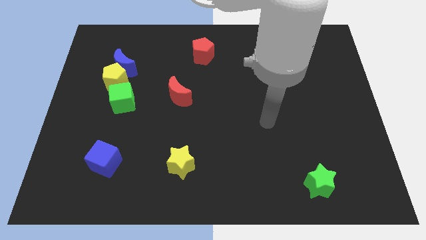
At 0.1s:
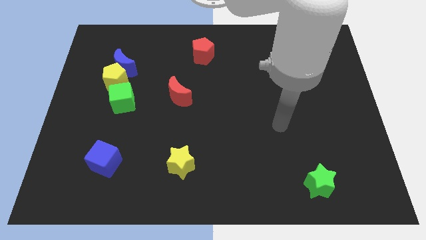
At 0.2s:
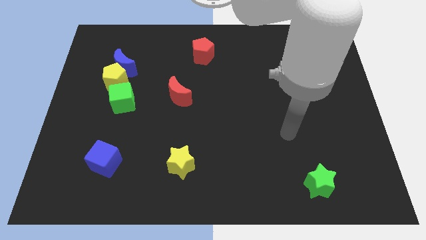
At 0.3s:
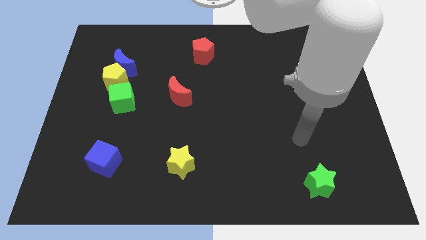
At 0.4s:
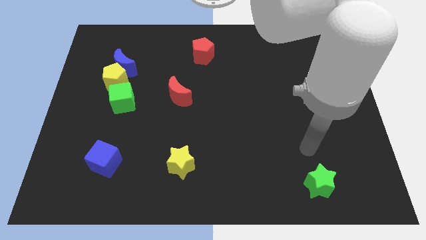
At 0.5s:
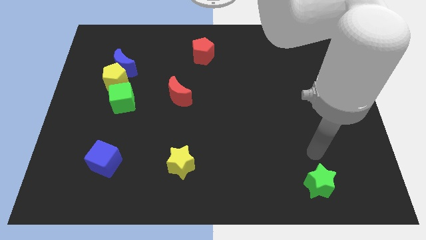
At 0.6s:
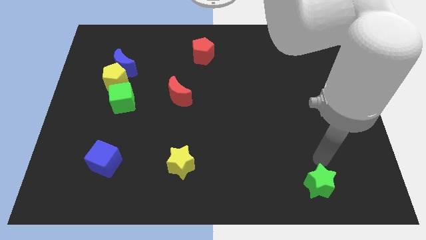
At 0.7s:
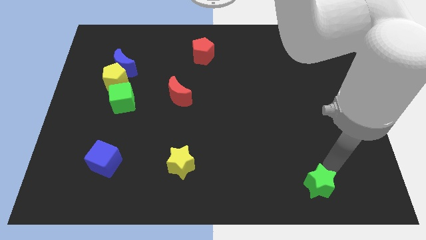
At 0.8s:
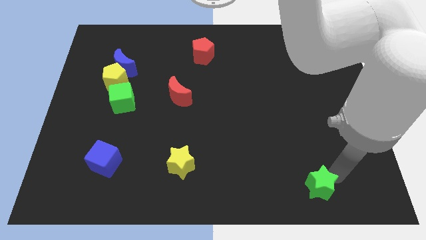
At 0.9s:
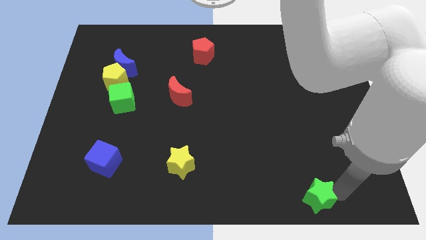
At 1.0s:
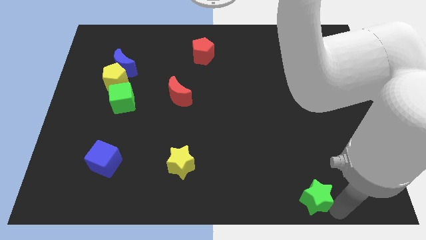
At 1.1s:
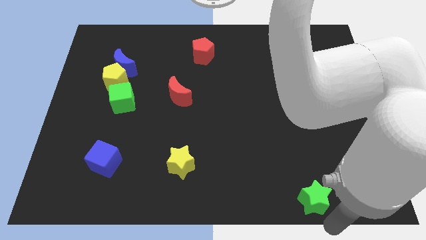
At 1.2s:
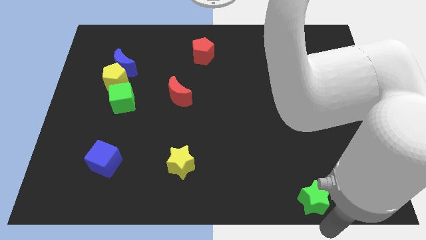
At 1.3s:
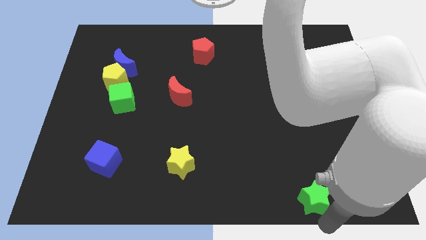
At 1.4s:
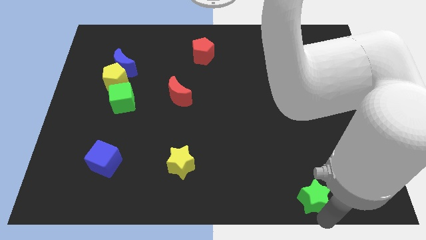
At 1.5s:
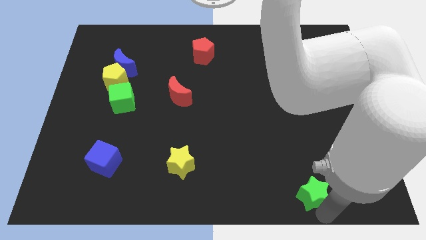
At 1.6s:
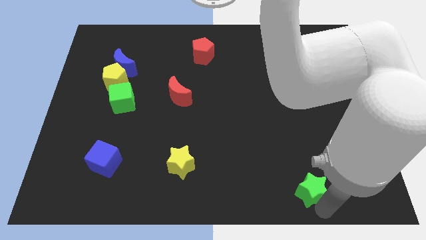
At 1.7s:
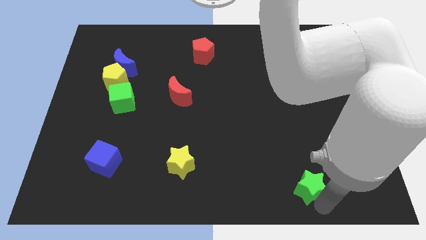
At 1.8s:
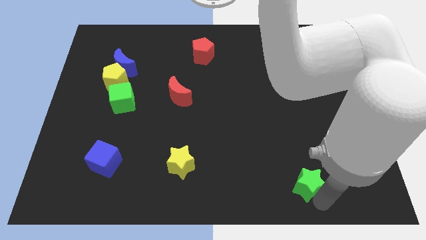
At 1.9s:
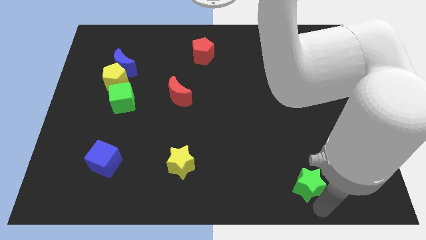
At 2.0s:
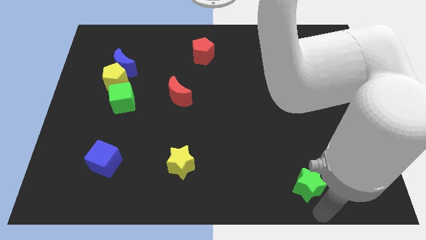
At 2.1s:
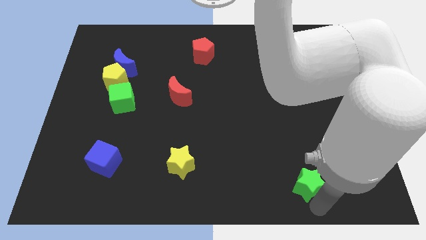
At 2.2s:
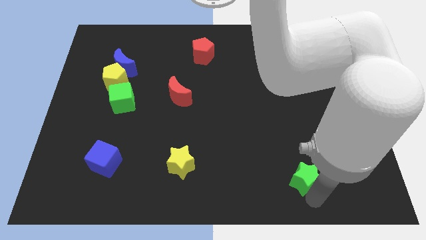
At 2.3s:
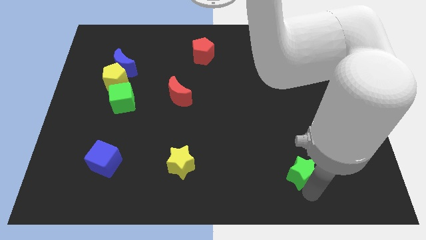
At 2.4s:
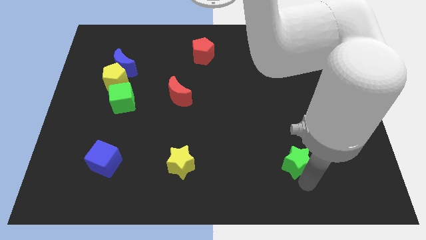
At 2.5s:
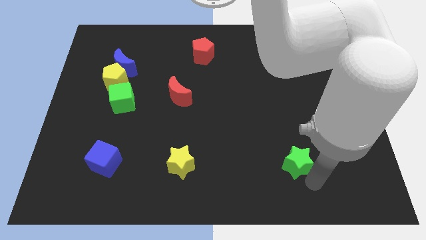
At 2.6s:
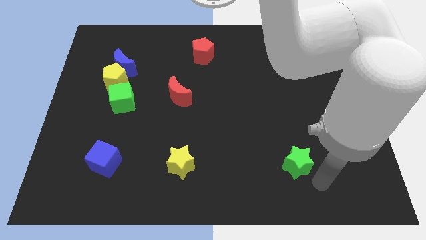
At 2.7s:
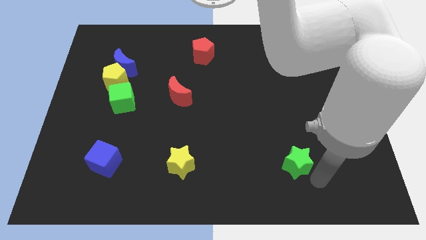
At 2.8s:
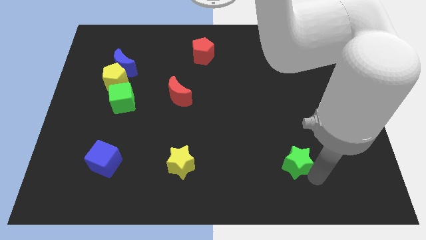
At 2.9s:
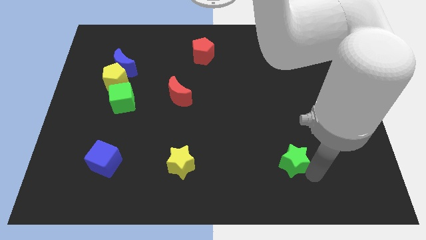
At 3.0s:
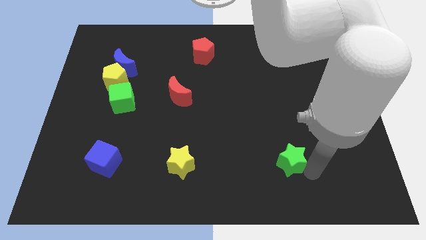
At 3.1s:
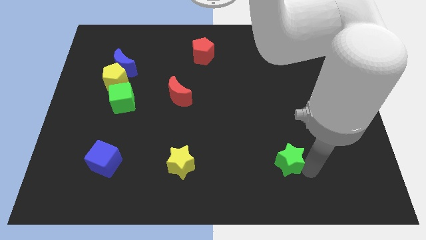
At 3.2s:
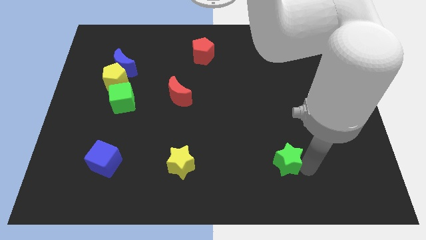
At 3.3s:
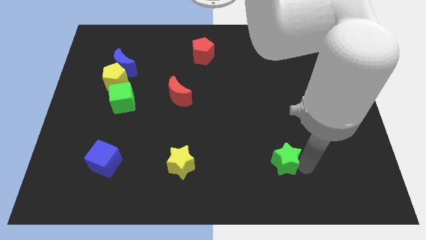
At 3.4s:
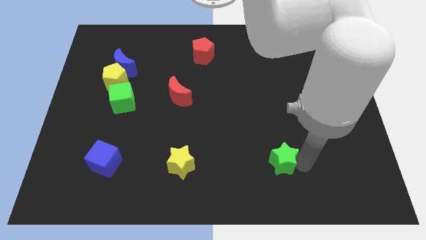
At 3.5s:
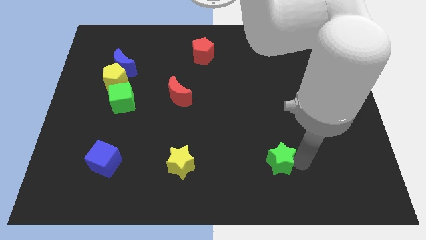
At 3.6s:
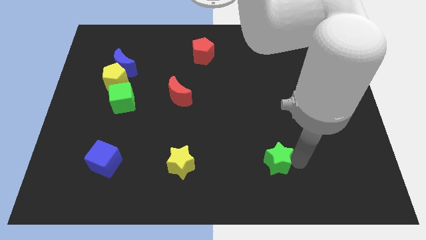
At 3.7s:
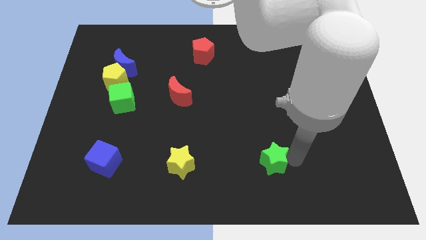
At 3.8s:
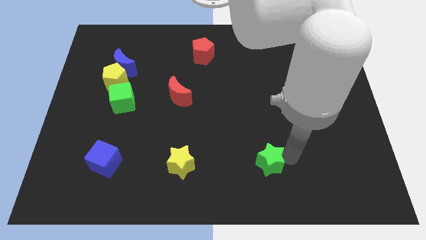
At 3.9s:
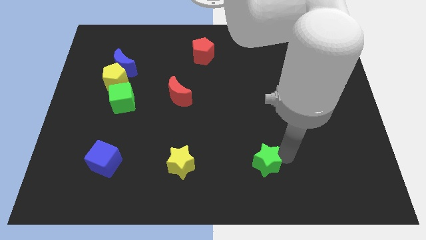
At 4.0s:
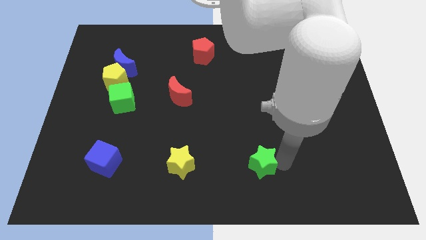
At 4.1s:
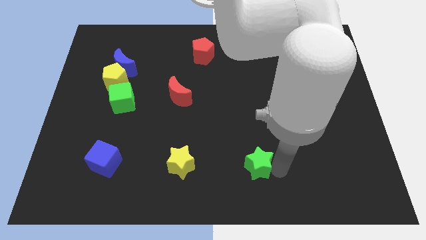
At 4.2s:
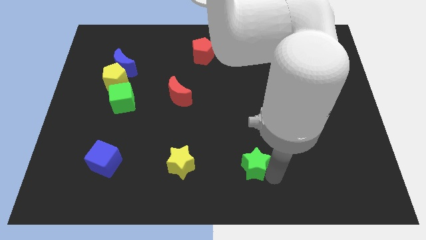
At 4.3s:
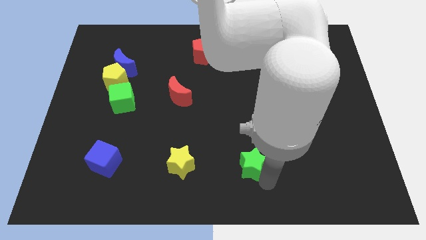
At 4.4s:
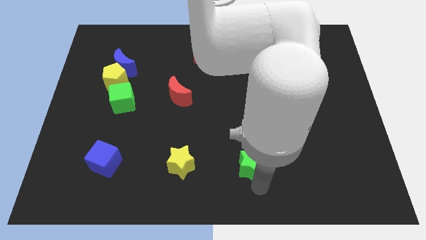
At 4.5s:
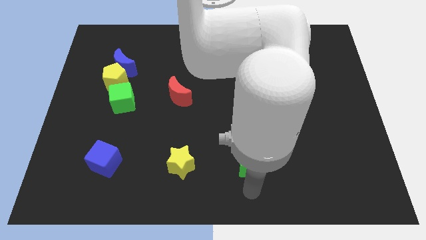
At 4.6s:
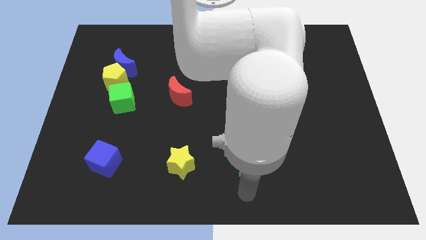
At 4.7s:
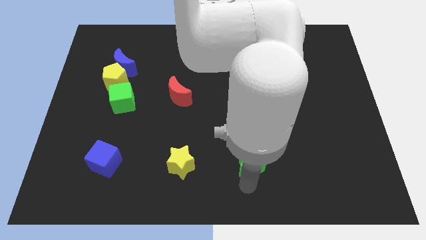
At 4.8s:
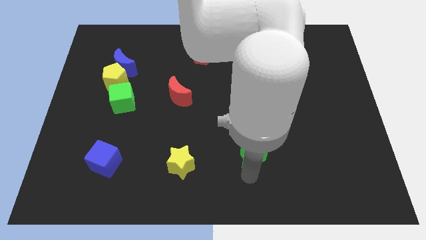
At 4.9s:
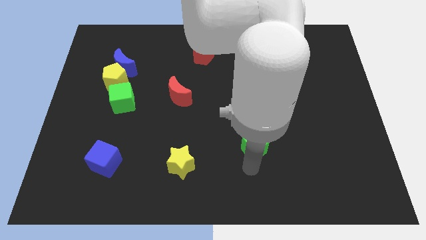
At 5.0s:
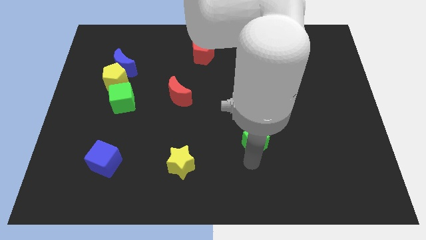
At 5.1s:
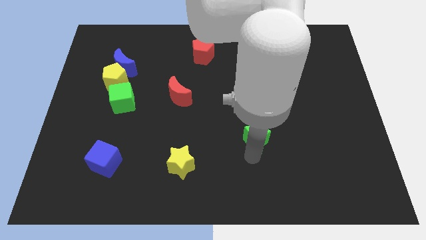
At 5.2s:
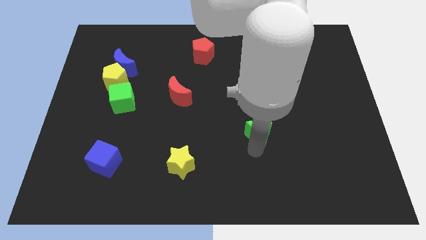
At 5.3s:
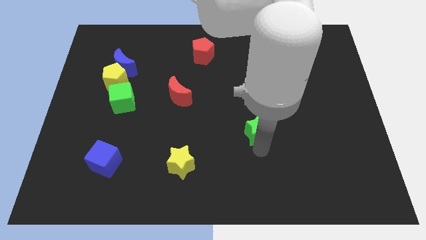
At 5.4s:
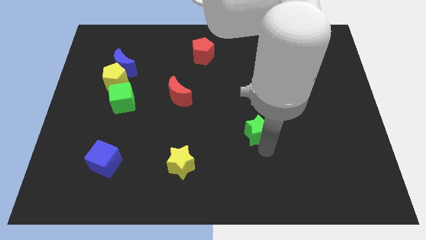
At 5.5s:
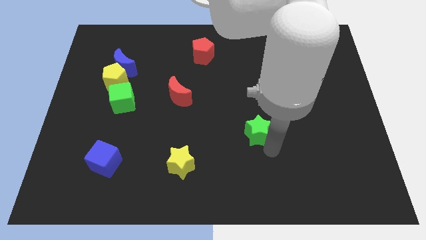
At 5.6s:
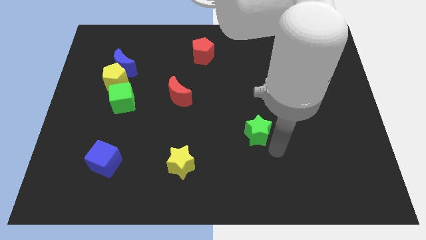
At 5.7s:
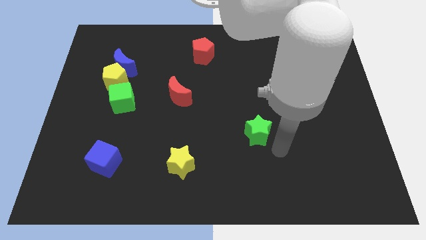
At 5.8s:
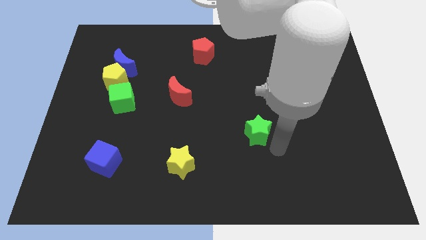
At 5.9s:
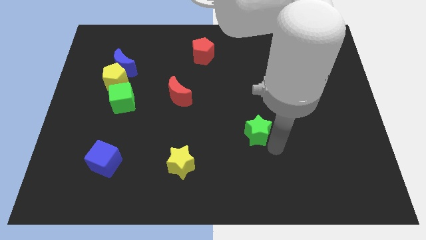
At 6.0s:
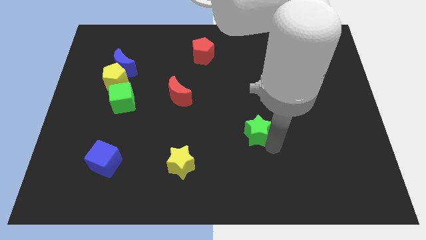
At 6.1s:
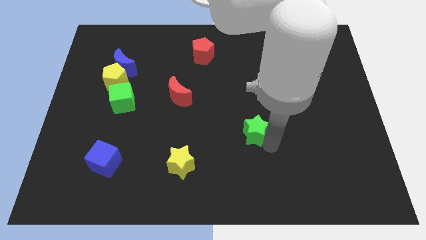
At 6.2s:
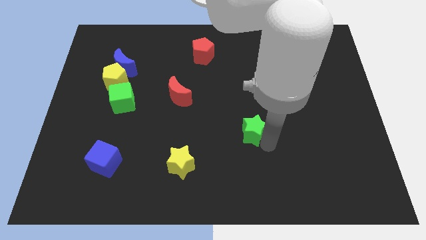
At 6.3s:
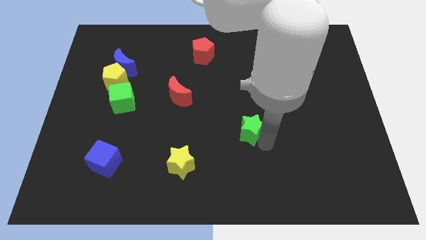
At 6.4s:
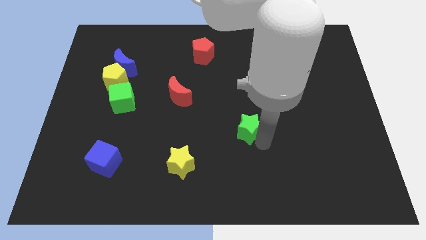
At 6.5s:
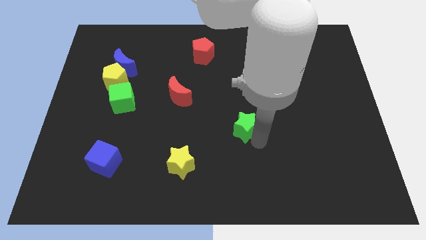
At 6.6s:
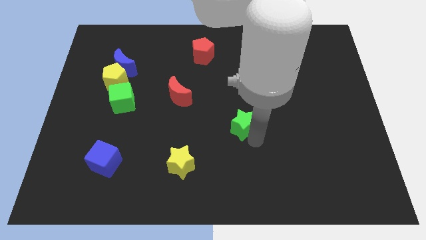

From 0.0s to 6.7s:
push the green star upwards and to the left

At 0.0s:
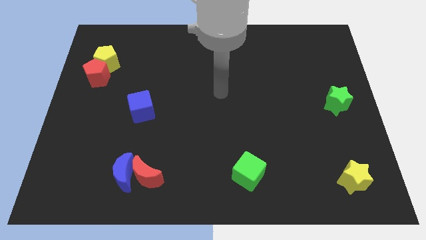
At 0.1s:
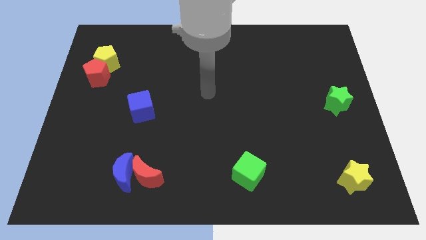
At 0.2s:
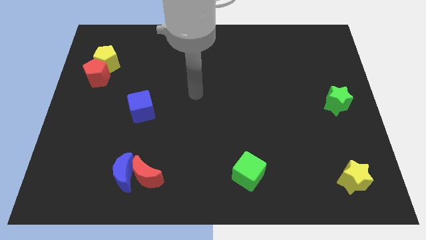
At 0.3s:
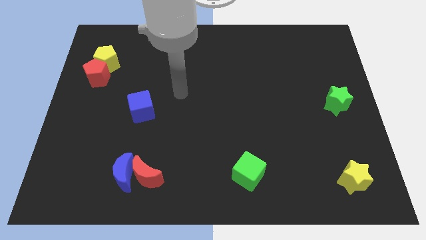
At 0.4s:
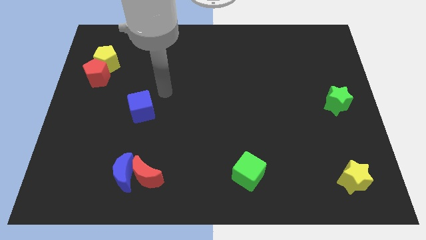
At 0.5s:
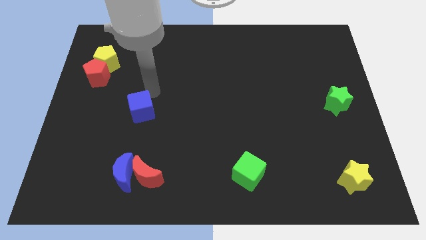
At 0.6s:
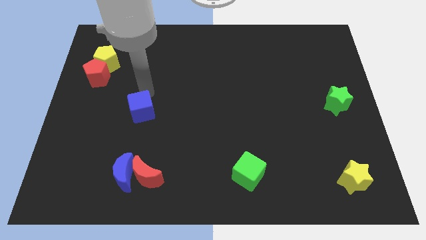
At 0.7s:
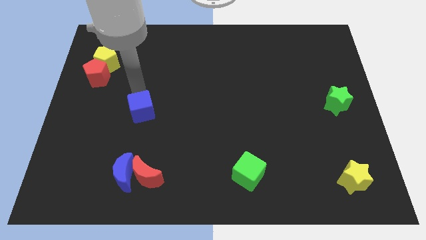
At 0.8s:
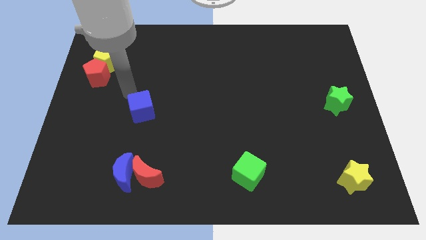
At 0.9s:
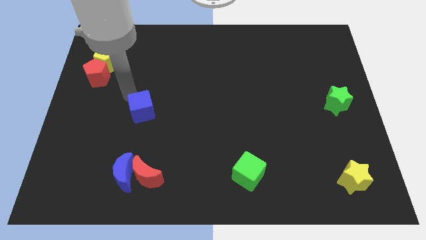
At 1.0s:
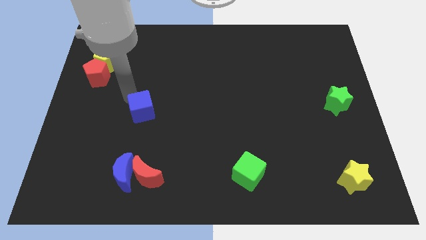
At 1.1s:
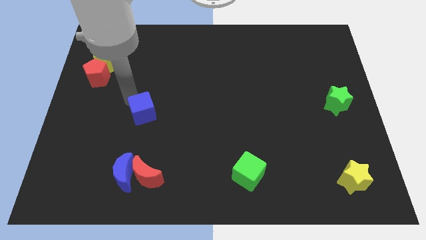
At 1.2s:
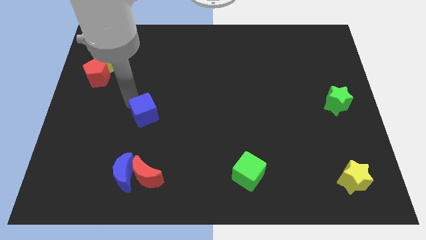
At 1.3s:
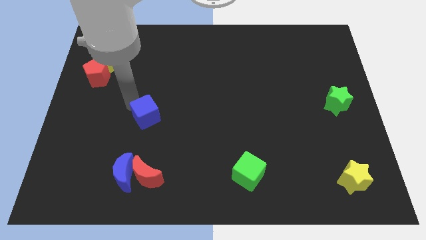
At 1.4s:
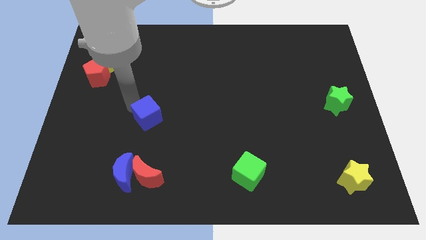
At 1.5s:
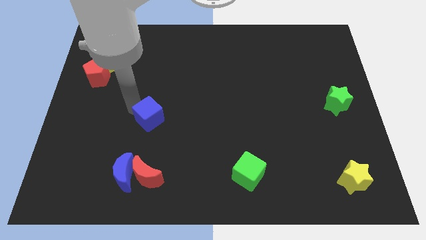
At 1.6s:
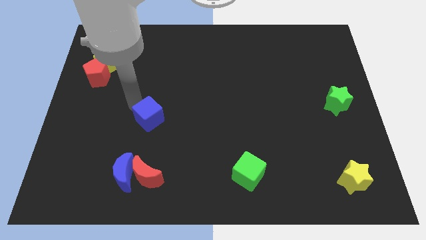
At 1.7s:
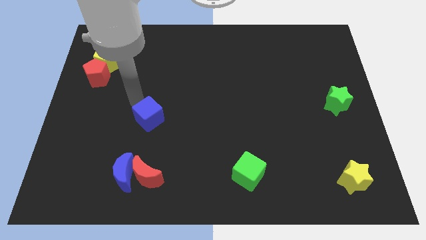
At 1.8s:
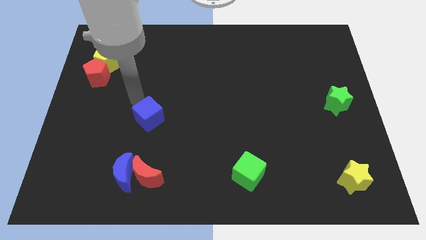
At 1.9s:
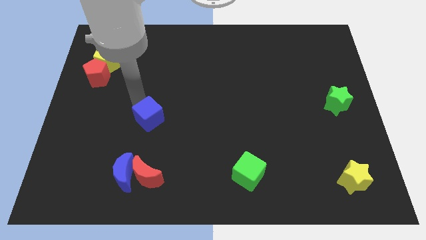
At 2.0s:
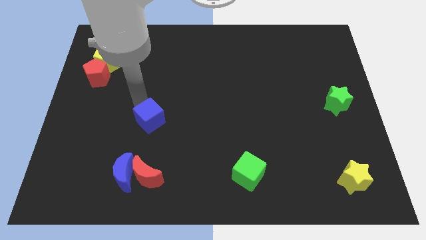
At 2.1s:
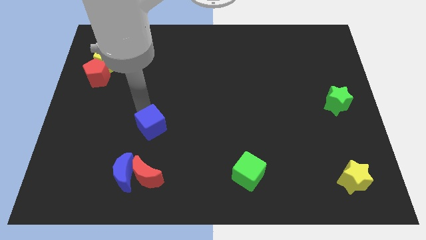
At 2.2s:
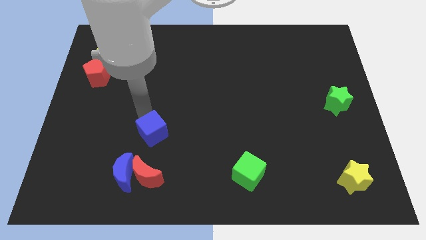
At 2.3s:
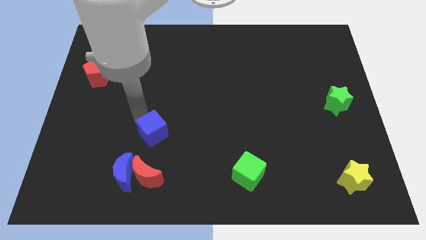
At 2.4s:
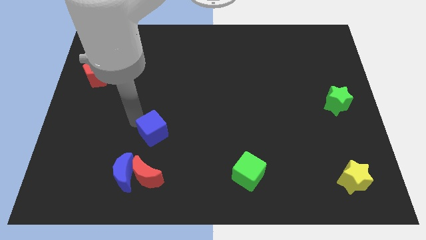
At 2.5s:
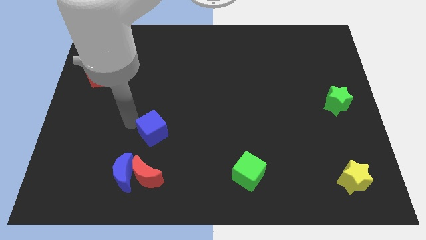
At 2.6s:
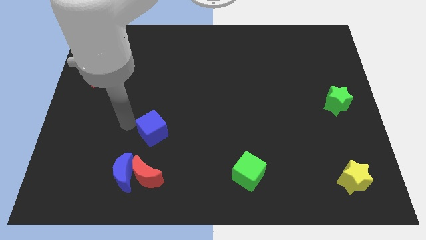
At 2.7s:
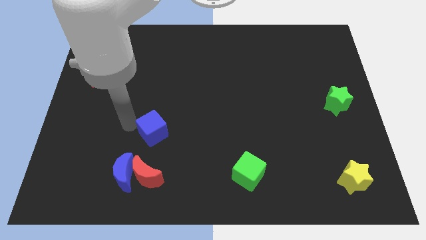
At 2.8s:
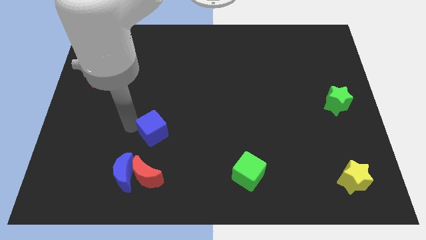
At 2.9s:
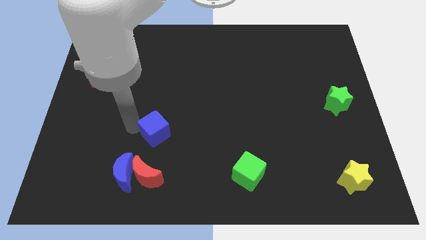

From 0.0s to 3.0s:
slide the blue cube a bit down and to the right diagonally
